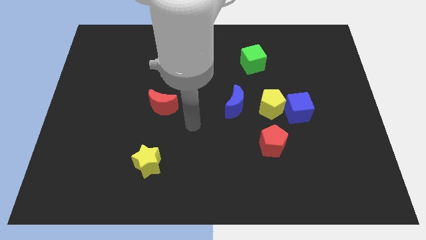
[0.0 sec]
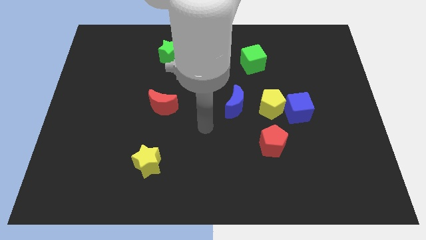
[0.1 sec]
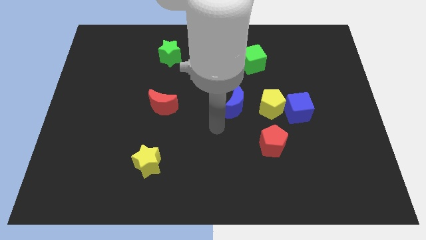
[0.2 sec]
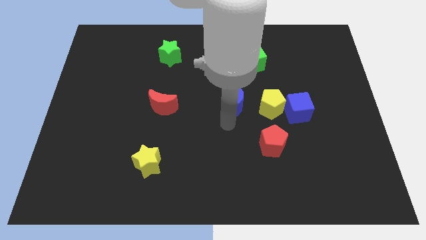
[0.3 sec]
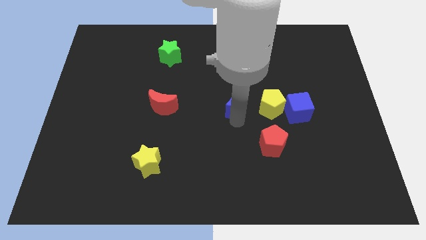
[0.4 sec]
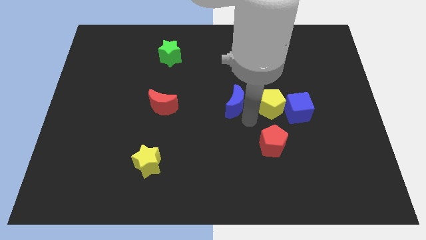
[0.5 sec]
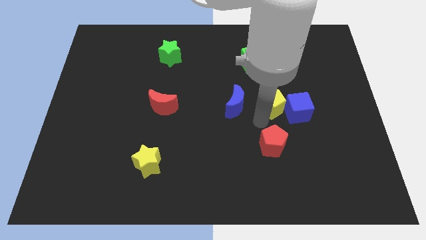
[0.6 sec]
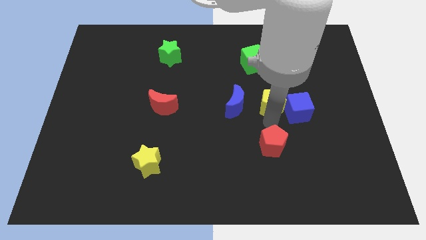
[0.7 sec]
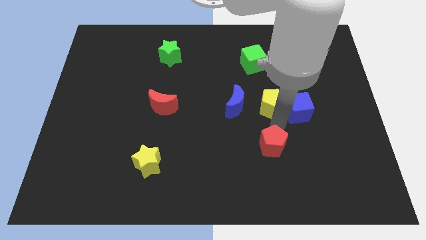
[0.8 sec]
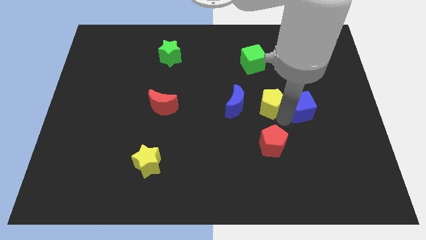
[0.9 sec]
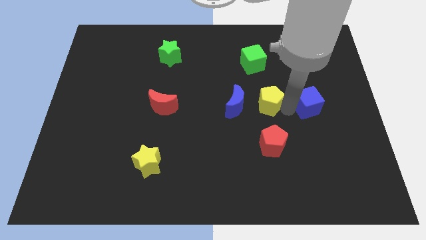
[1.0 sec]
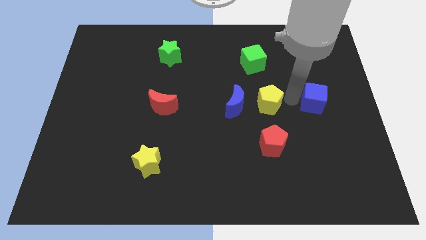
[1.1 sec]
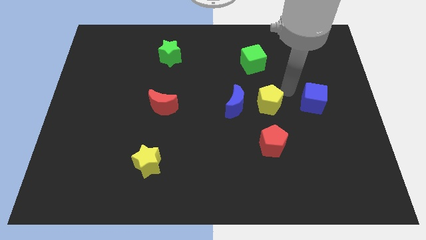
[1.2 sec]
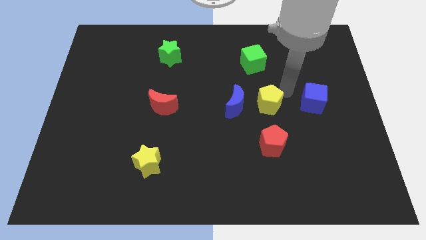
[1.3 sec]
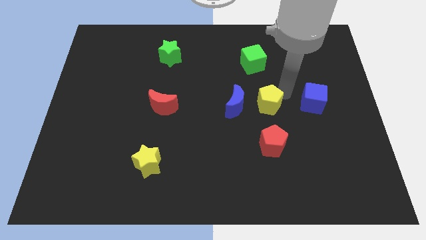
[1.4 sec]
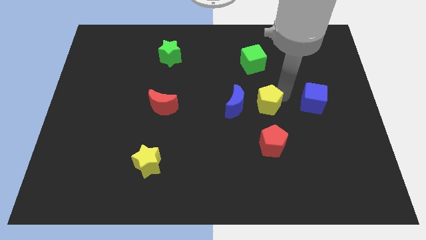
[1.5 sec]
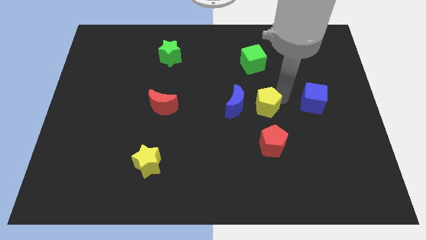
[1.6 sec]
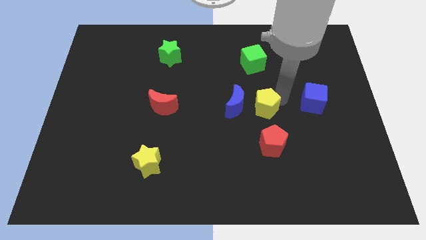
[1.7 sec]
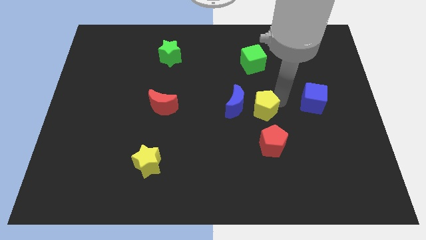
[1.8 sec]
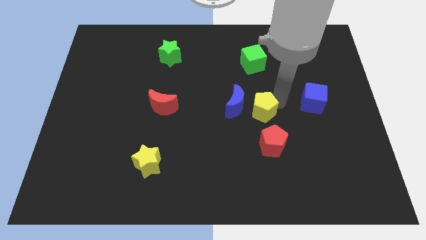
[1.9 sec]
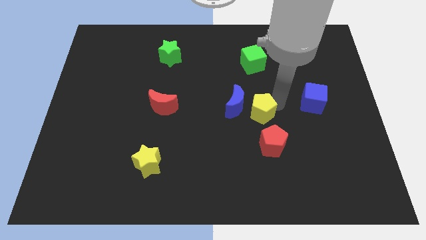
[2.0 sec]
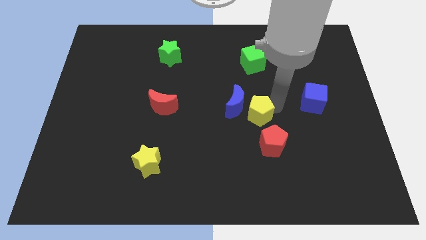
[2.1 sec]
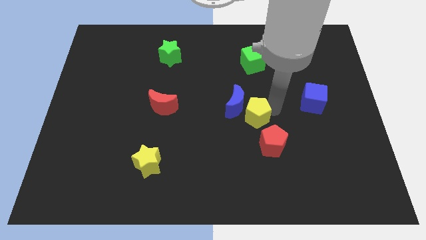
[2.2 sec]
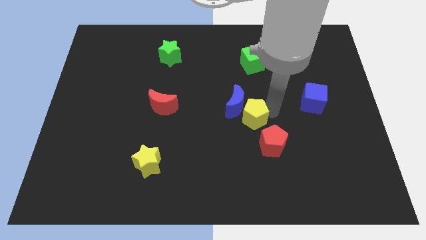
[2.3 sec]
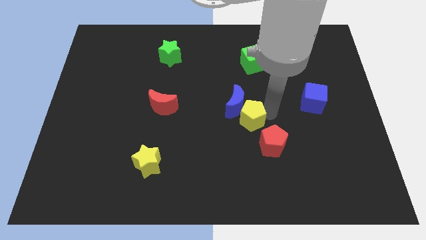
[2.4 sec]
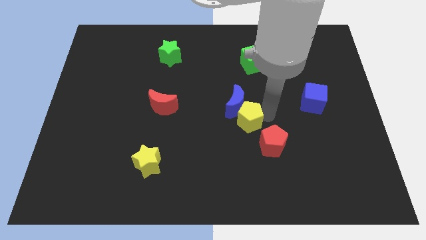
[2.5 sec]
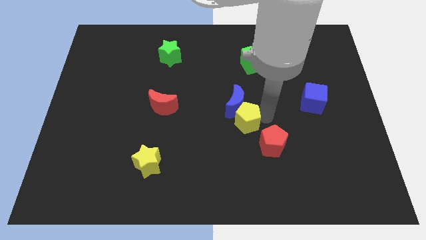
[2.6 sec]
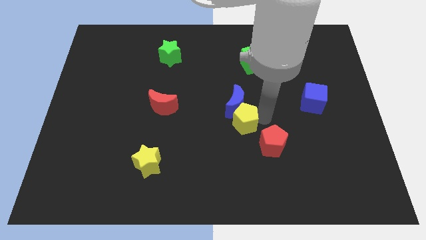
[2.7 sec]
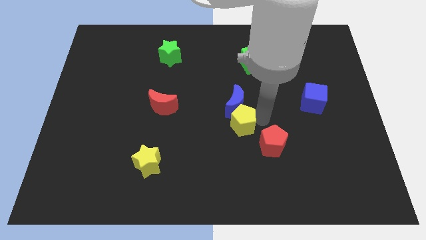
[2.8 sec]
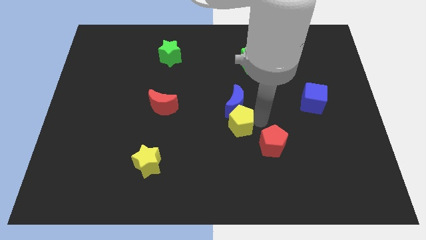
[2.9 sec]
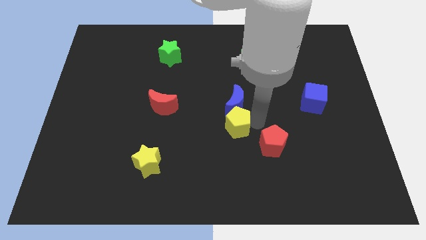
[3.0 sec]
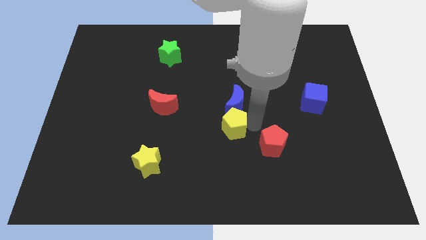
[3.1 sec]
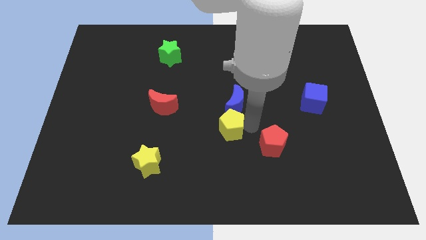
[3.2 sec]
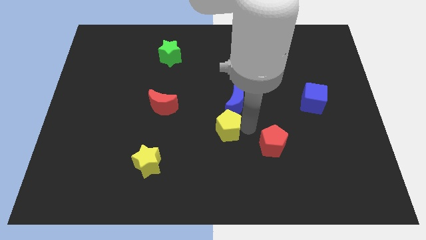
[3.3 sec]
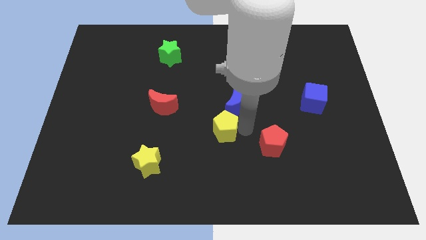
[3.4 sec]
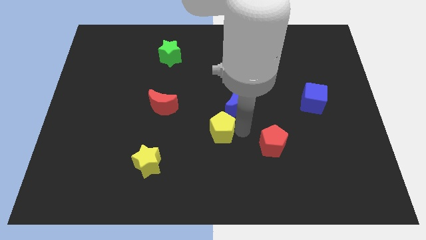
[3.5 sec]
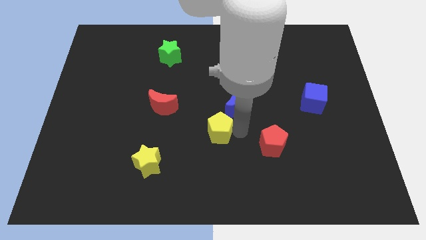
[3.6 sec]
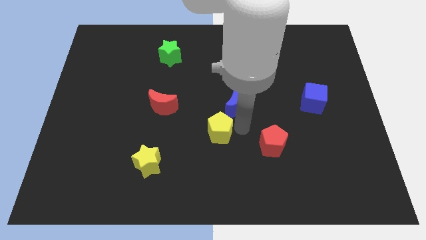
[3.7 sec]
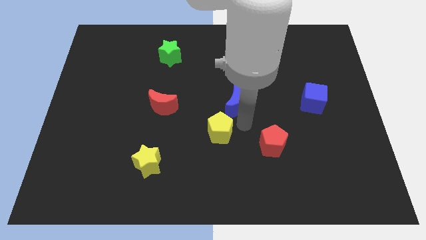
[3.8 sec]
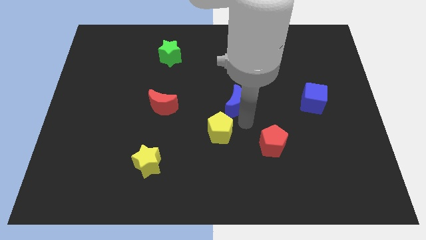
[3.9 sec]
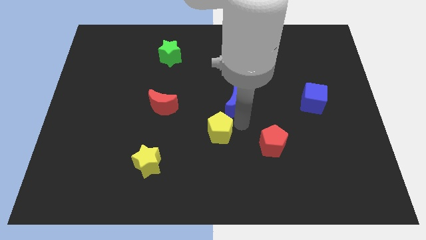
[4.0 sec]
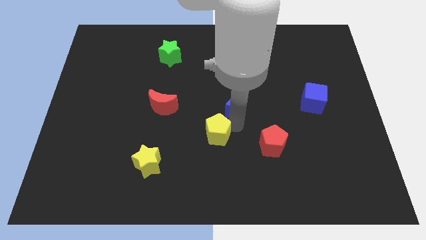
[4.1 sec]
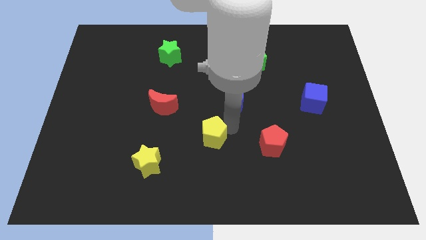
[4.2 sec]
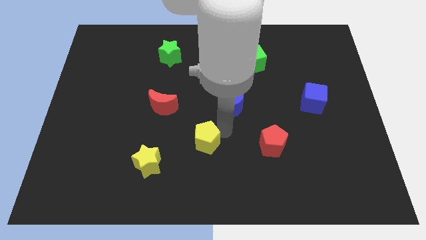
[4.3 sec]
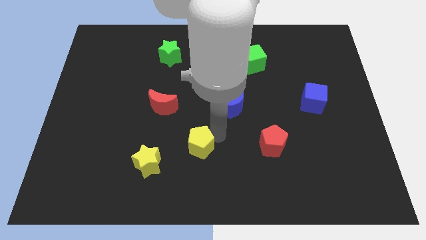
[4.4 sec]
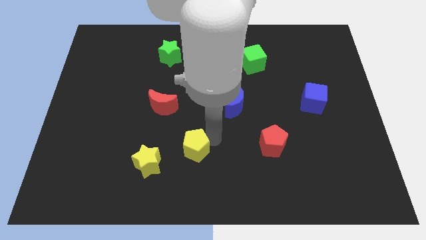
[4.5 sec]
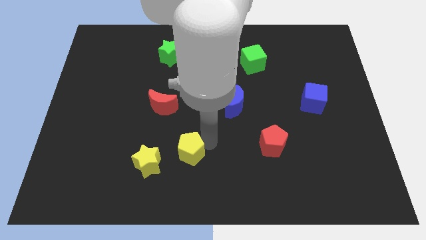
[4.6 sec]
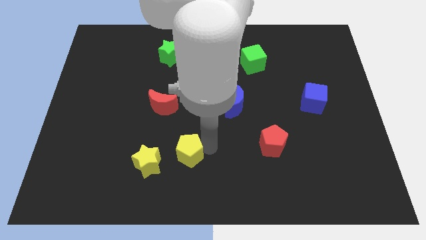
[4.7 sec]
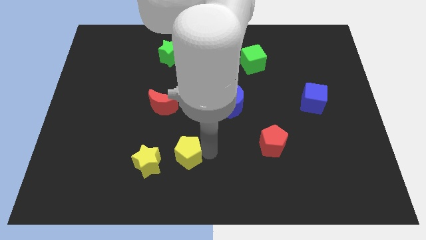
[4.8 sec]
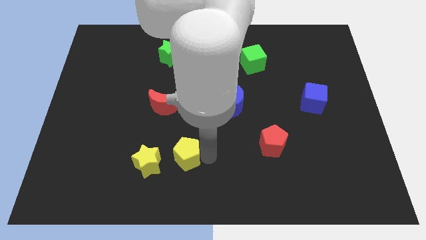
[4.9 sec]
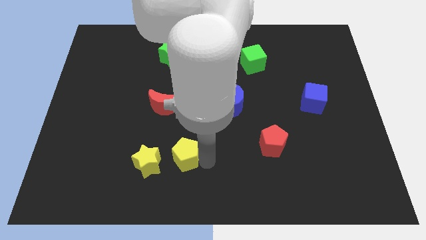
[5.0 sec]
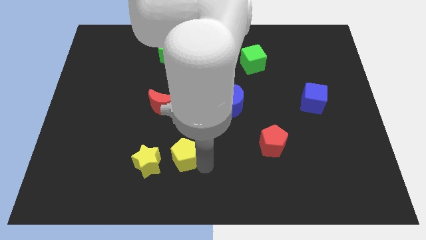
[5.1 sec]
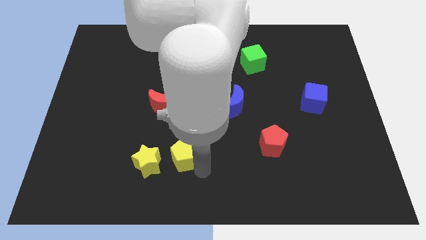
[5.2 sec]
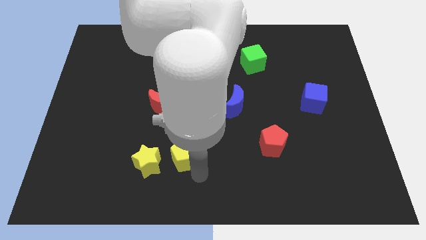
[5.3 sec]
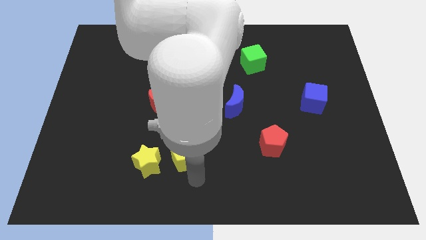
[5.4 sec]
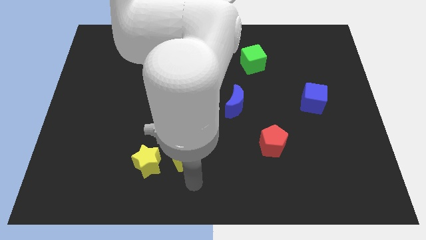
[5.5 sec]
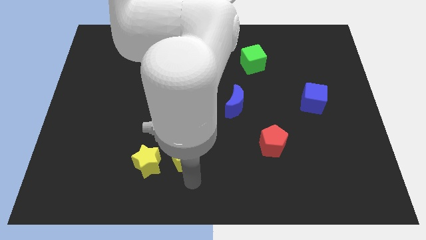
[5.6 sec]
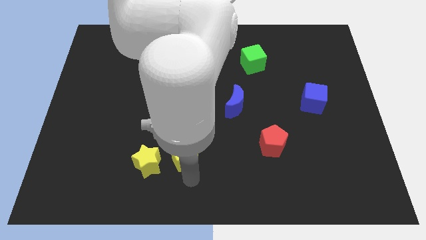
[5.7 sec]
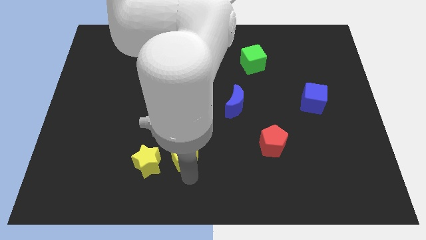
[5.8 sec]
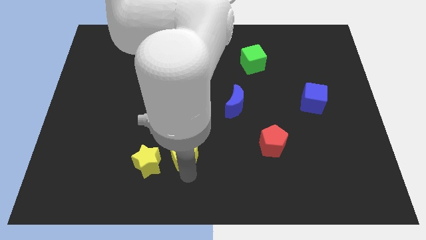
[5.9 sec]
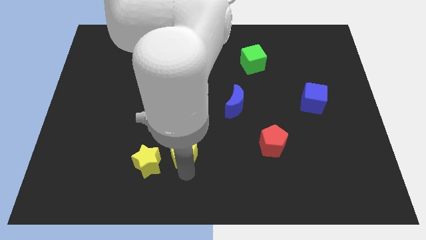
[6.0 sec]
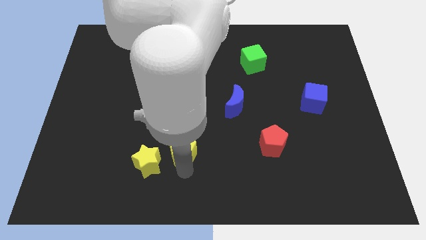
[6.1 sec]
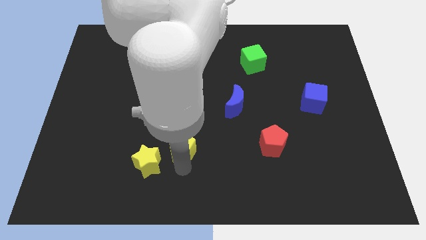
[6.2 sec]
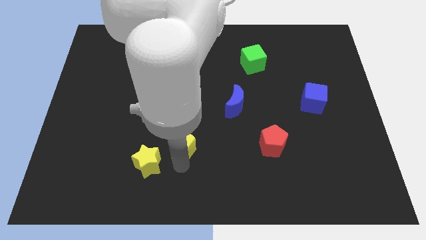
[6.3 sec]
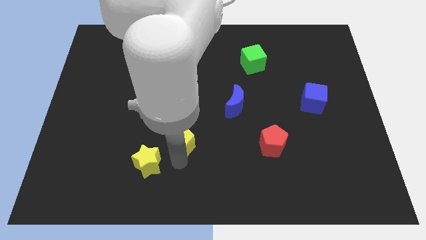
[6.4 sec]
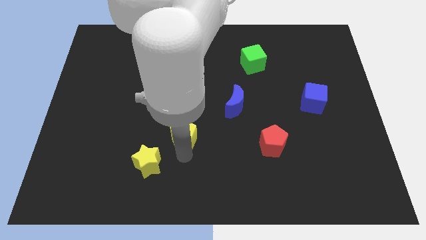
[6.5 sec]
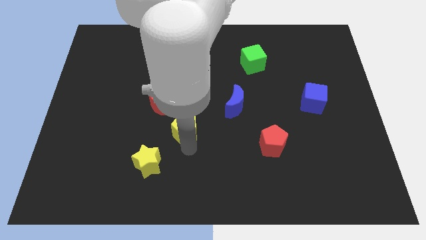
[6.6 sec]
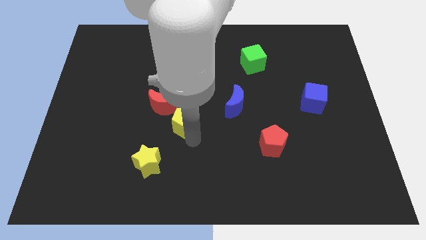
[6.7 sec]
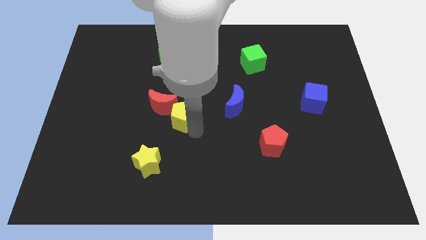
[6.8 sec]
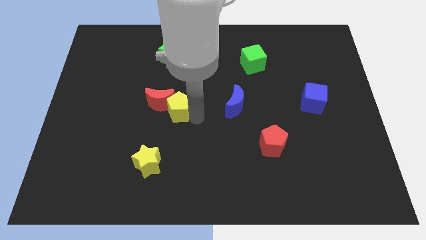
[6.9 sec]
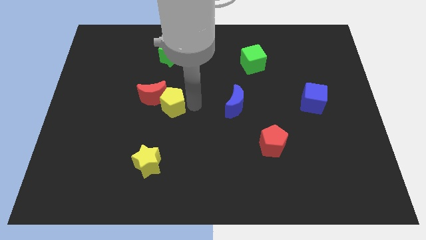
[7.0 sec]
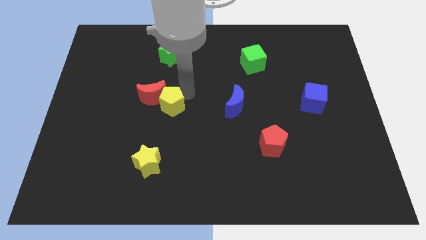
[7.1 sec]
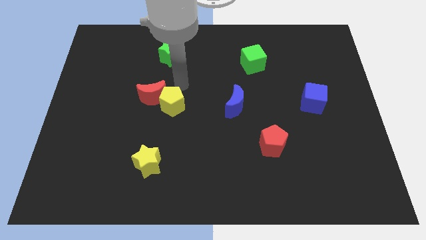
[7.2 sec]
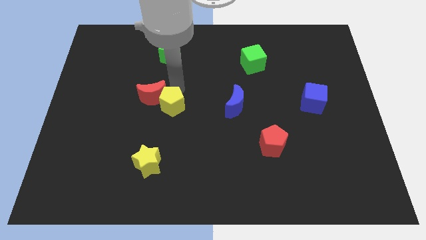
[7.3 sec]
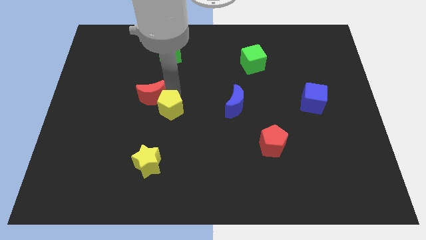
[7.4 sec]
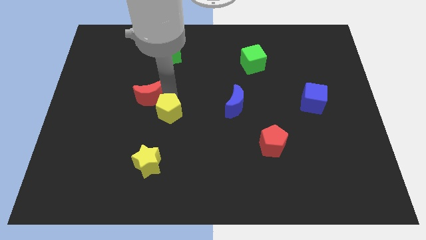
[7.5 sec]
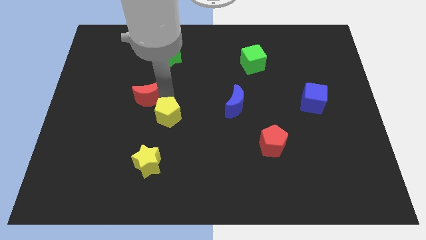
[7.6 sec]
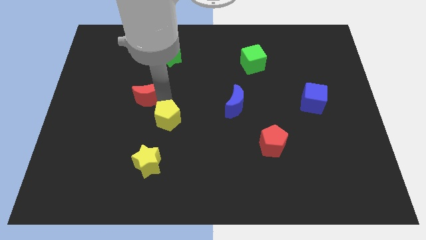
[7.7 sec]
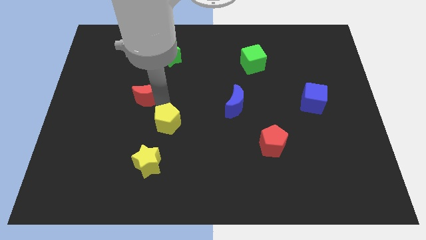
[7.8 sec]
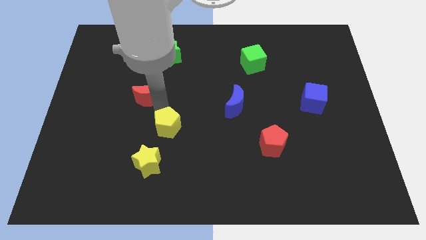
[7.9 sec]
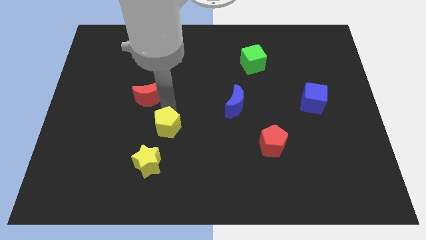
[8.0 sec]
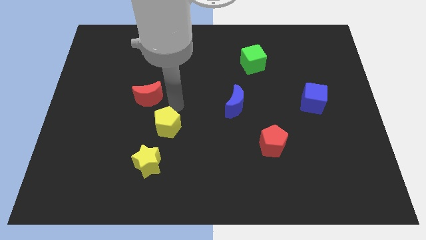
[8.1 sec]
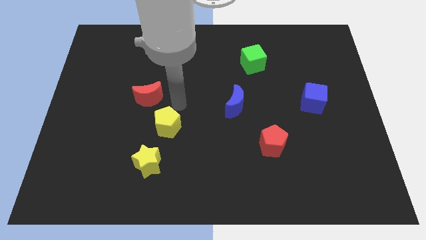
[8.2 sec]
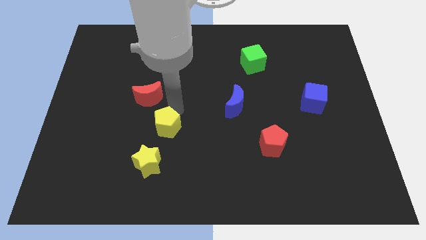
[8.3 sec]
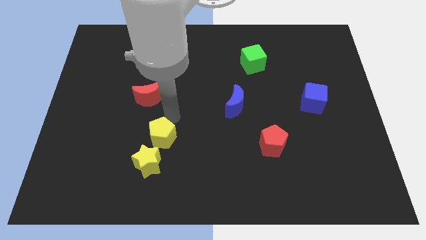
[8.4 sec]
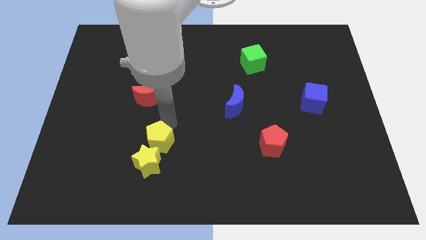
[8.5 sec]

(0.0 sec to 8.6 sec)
move the yellow pentagon towards the yellow star

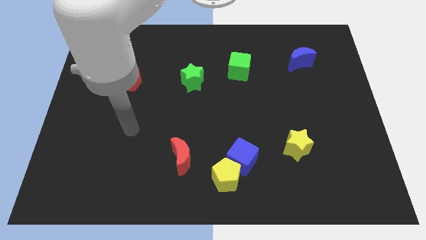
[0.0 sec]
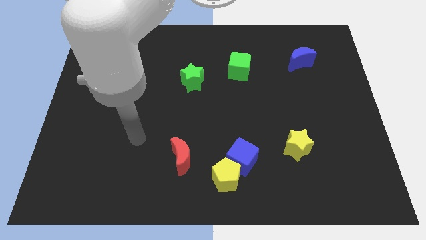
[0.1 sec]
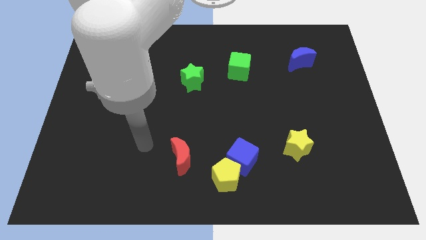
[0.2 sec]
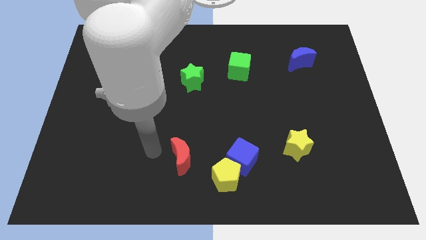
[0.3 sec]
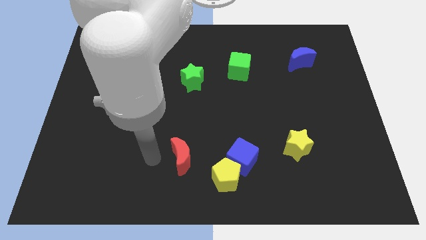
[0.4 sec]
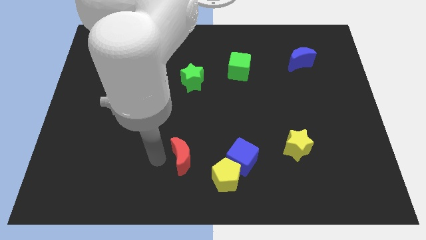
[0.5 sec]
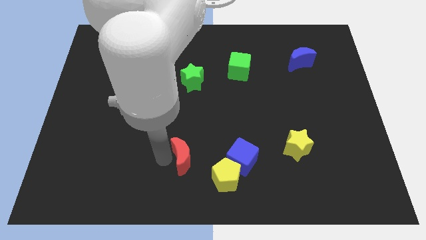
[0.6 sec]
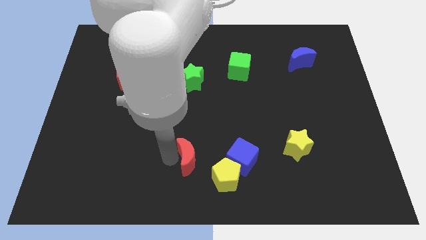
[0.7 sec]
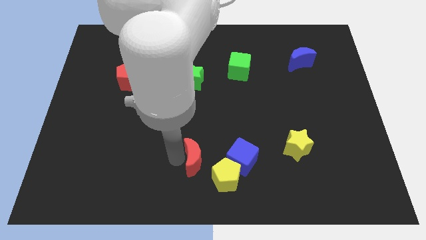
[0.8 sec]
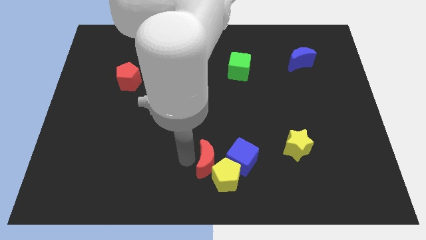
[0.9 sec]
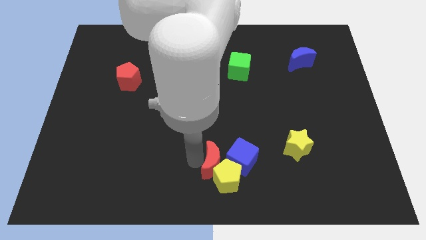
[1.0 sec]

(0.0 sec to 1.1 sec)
put the red moon towards the blue cube
